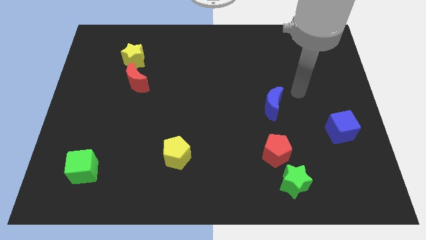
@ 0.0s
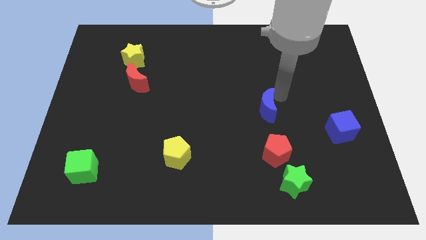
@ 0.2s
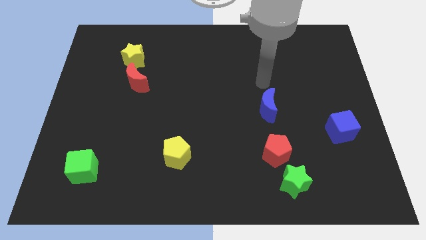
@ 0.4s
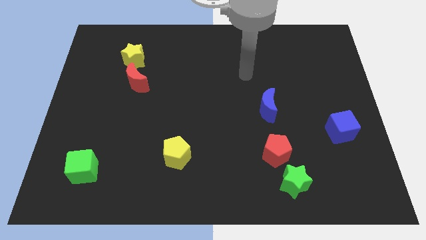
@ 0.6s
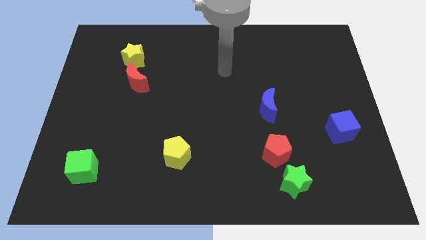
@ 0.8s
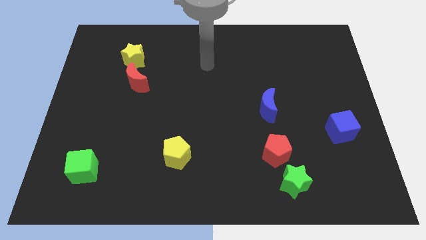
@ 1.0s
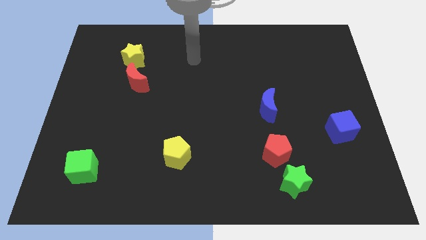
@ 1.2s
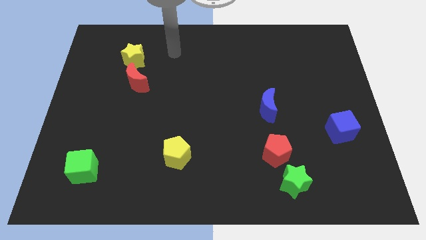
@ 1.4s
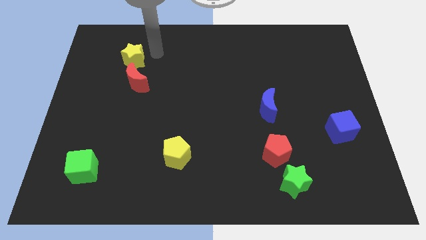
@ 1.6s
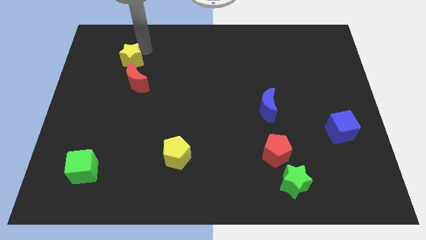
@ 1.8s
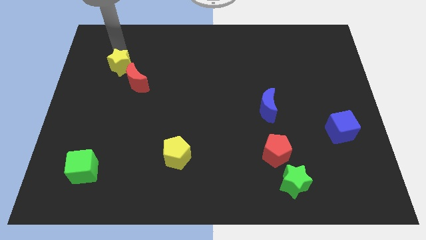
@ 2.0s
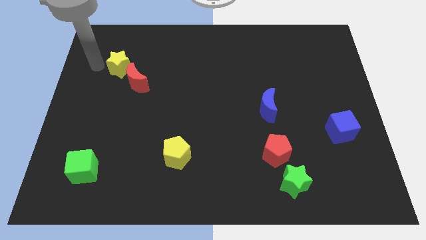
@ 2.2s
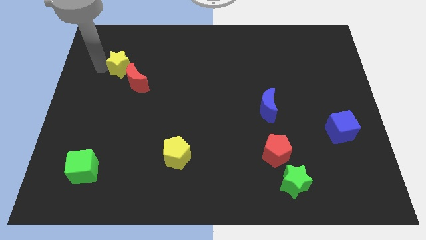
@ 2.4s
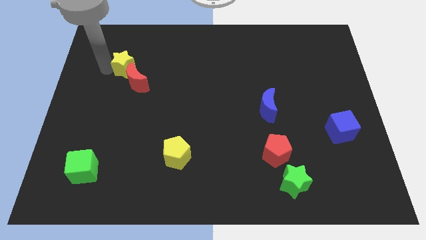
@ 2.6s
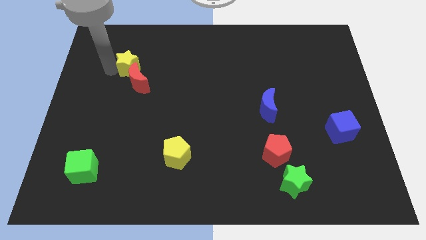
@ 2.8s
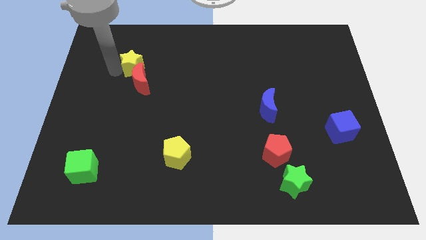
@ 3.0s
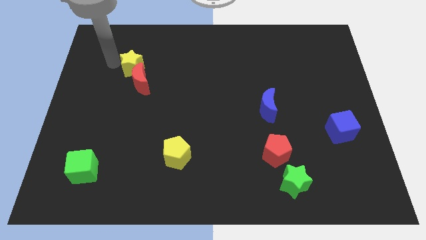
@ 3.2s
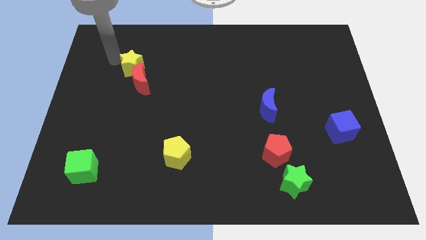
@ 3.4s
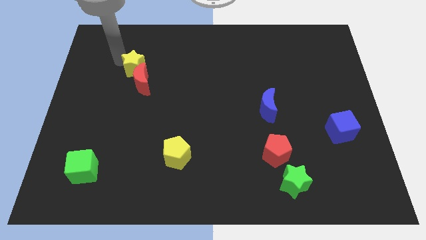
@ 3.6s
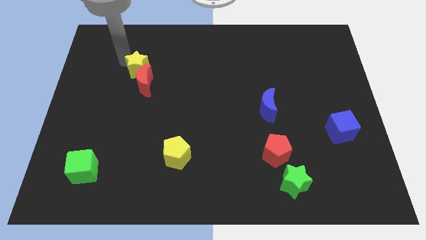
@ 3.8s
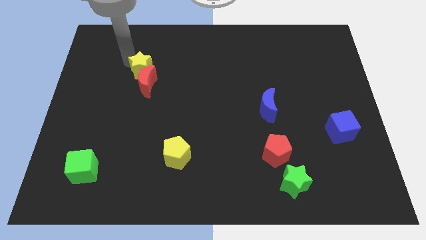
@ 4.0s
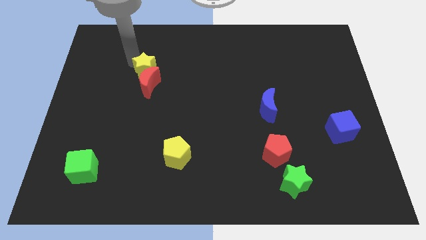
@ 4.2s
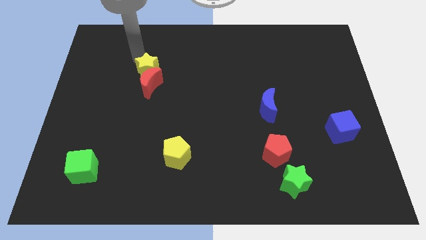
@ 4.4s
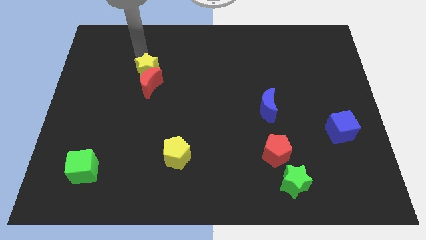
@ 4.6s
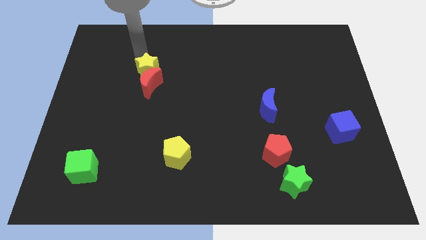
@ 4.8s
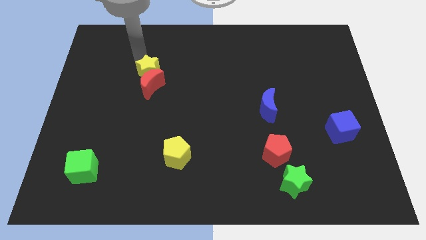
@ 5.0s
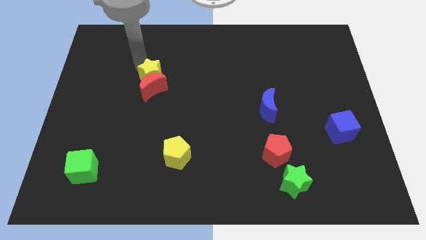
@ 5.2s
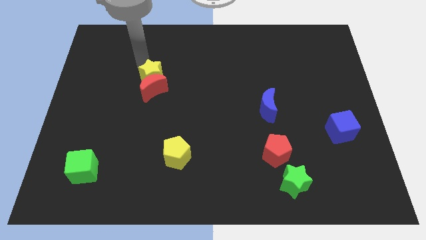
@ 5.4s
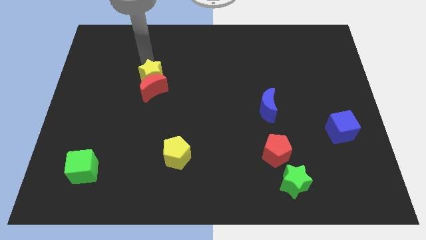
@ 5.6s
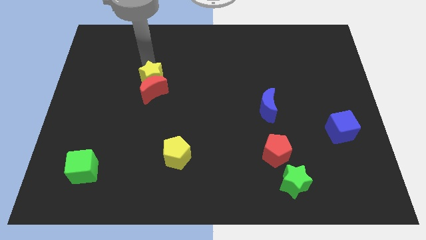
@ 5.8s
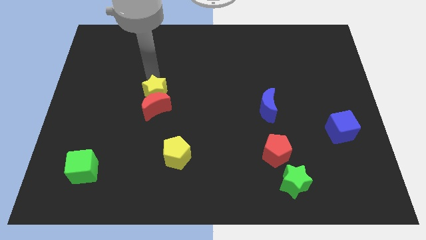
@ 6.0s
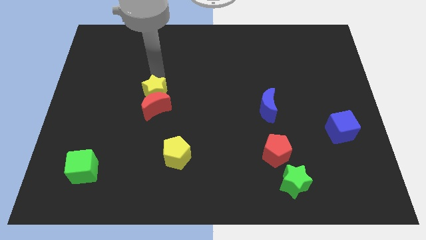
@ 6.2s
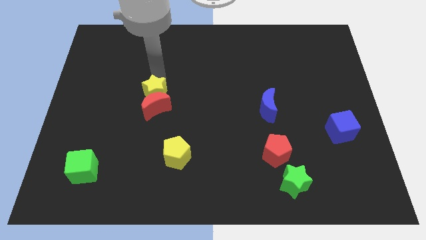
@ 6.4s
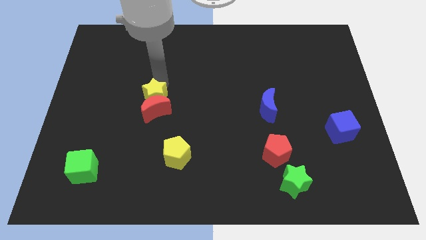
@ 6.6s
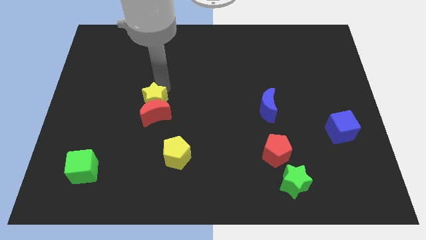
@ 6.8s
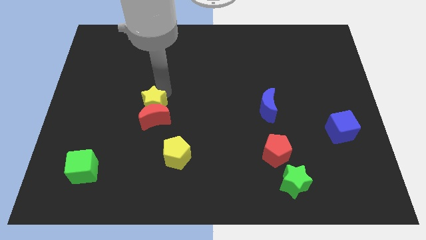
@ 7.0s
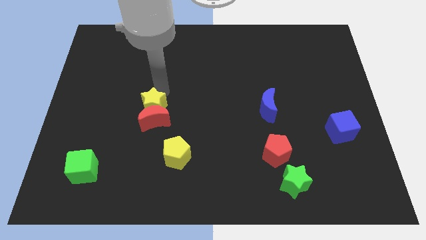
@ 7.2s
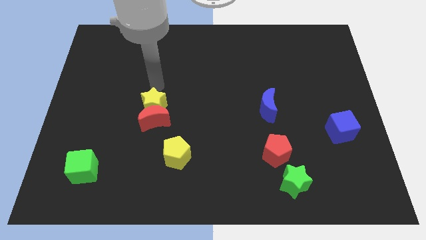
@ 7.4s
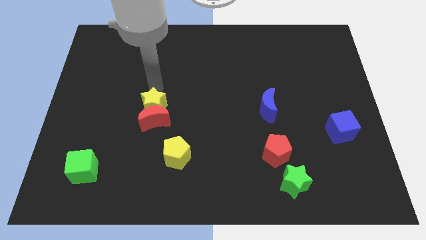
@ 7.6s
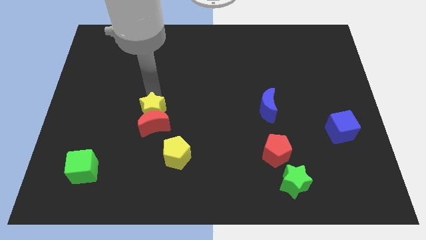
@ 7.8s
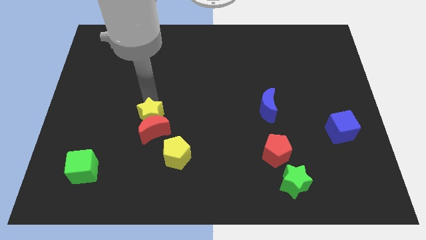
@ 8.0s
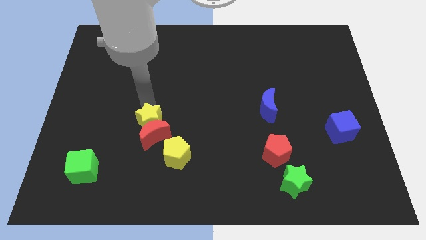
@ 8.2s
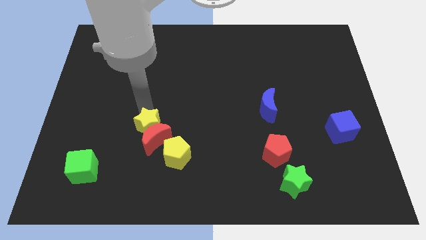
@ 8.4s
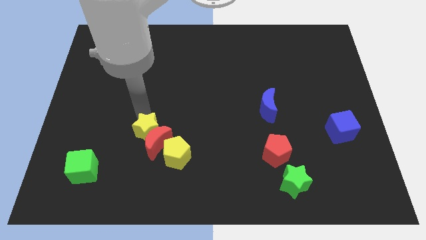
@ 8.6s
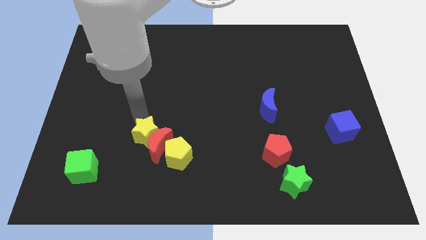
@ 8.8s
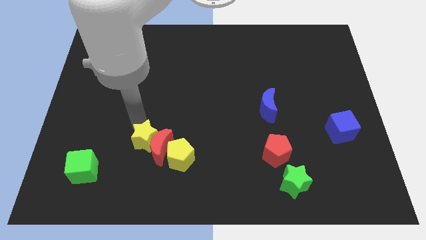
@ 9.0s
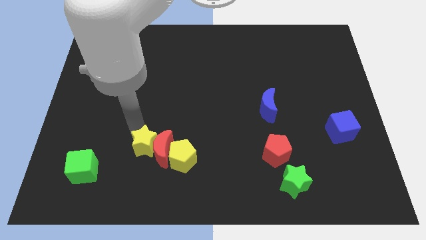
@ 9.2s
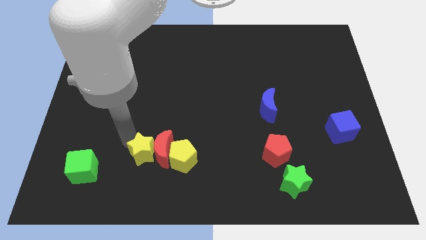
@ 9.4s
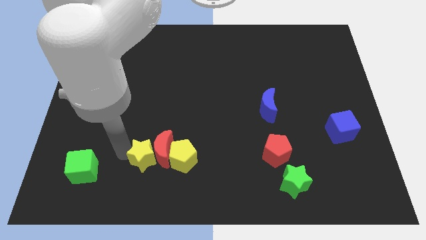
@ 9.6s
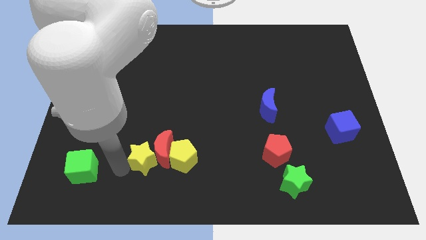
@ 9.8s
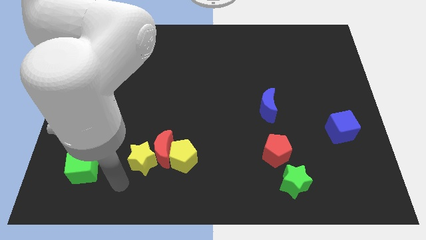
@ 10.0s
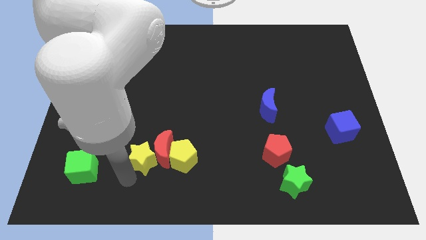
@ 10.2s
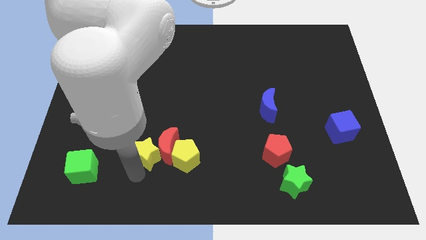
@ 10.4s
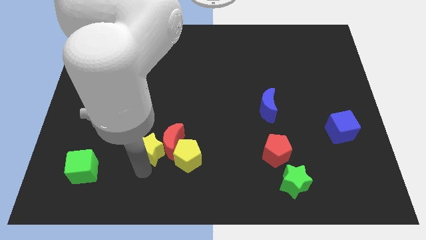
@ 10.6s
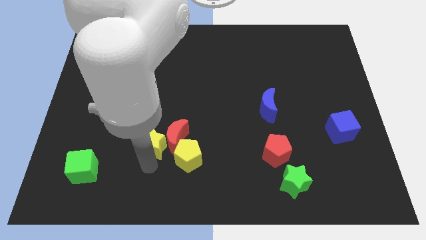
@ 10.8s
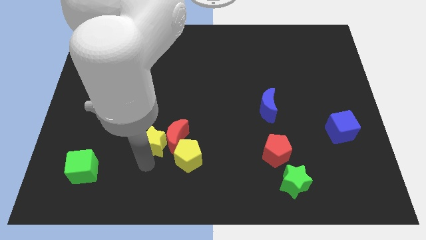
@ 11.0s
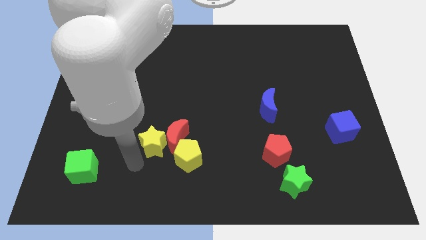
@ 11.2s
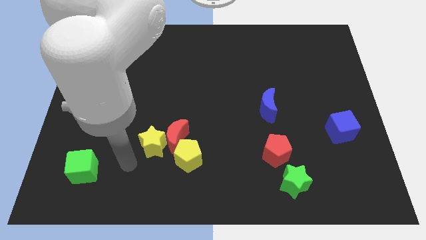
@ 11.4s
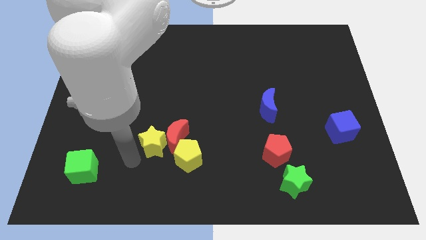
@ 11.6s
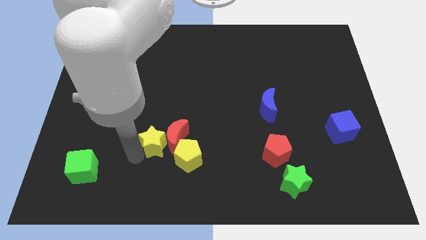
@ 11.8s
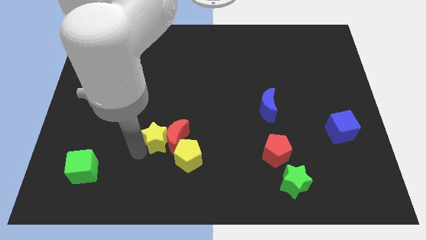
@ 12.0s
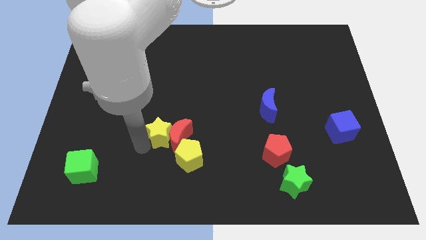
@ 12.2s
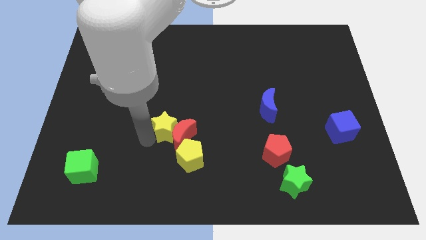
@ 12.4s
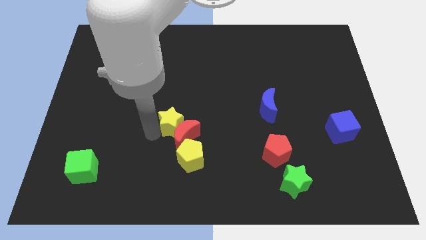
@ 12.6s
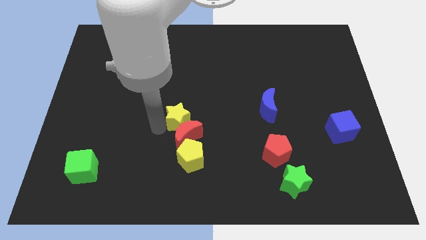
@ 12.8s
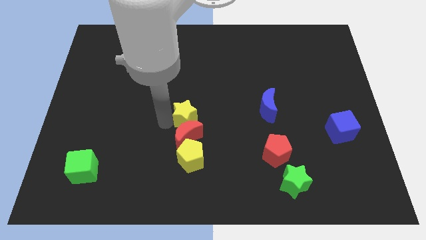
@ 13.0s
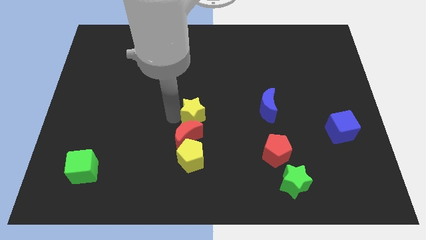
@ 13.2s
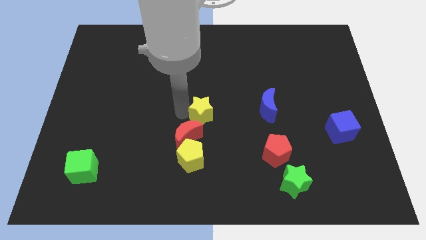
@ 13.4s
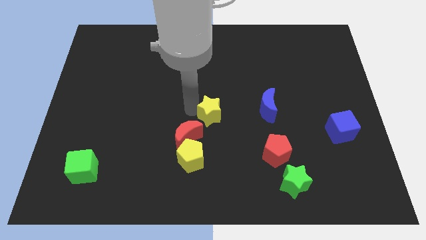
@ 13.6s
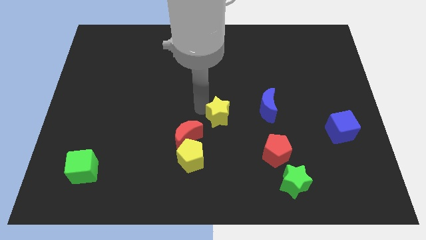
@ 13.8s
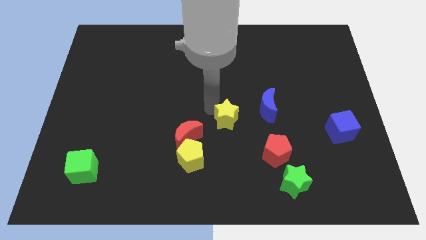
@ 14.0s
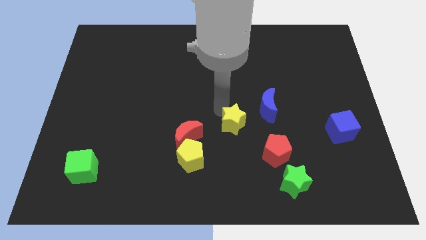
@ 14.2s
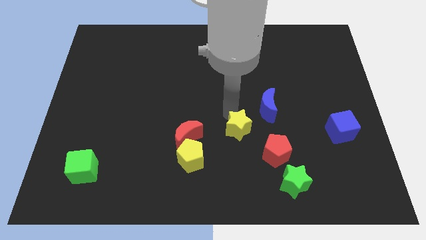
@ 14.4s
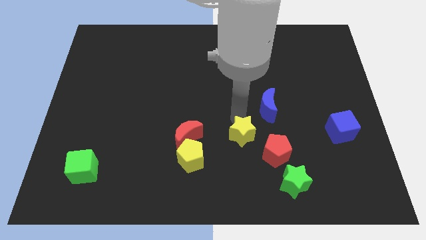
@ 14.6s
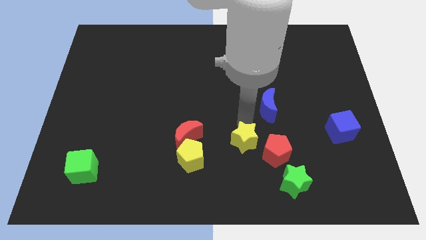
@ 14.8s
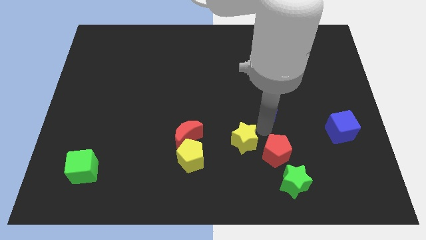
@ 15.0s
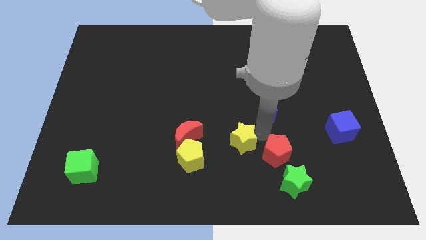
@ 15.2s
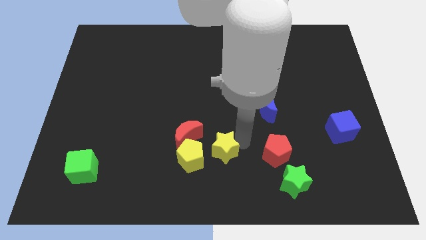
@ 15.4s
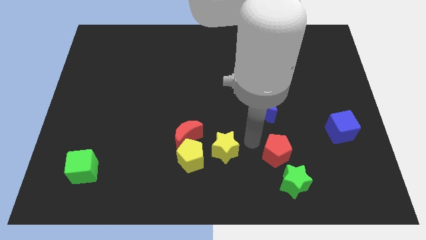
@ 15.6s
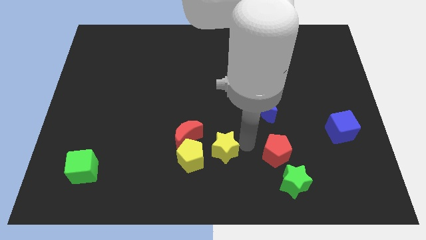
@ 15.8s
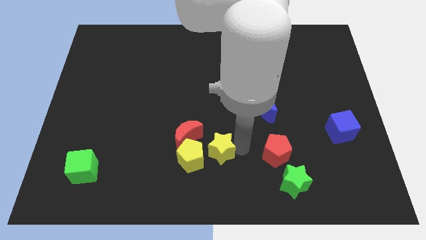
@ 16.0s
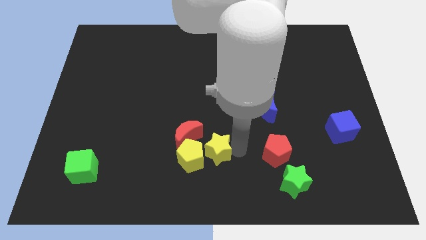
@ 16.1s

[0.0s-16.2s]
put the yellow star next to the yellow pentagon
